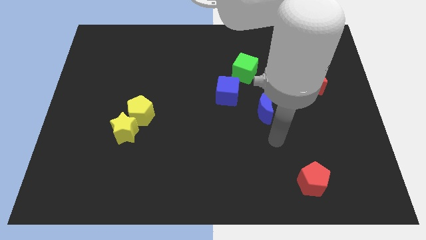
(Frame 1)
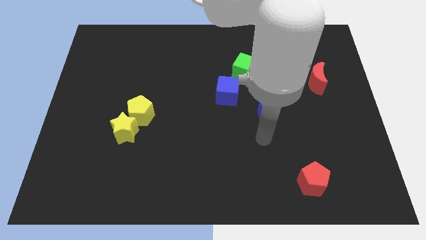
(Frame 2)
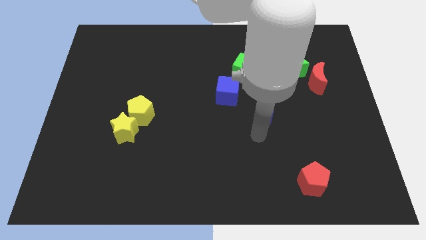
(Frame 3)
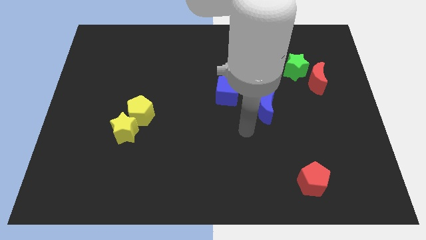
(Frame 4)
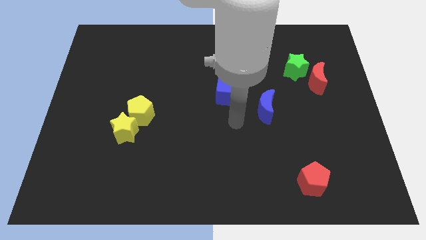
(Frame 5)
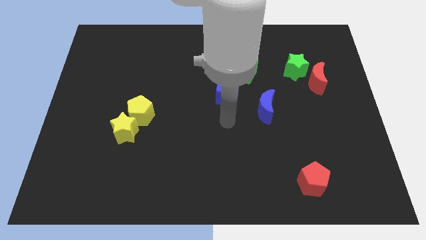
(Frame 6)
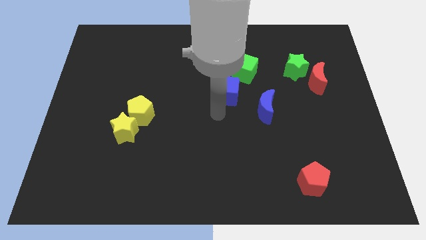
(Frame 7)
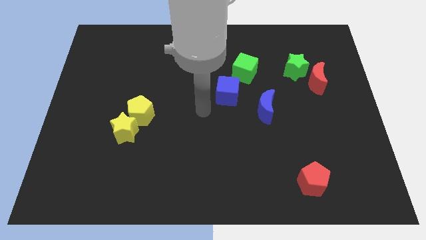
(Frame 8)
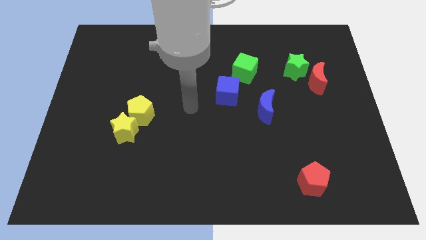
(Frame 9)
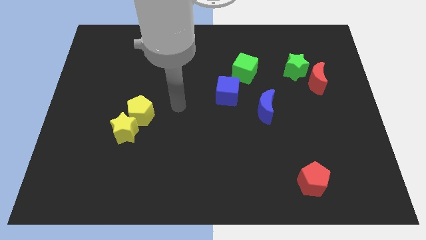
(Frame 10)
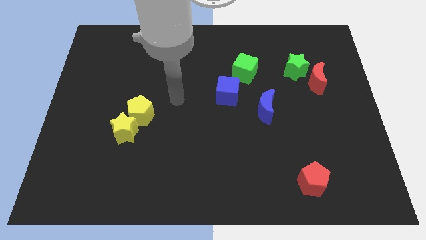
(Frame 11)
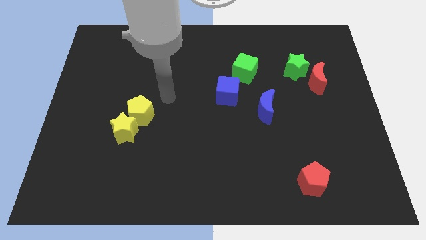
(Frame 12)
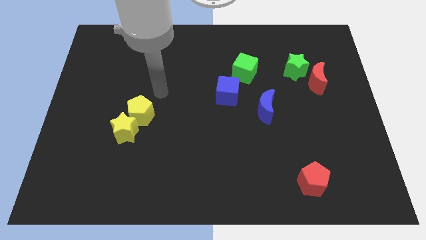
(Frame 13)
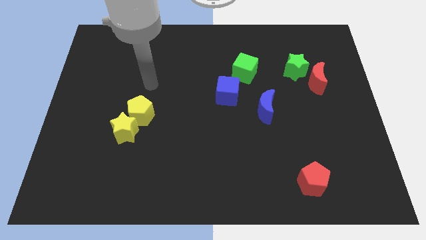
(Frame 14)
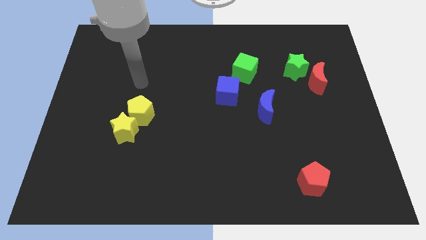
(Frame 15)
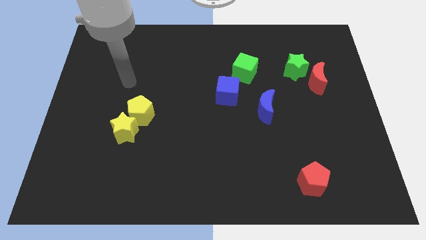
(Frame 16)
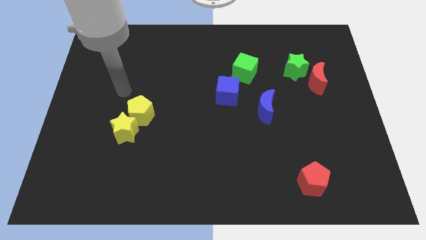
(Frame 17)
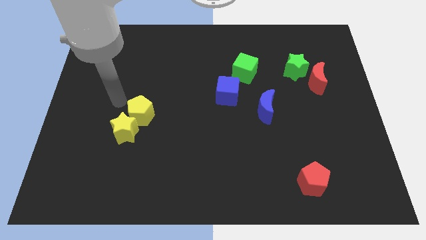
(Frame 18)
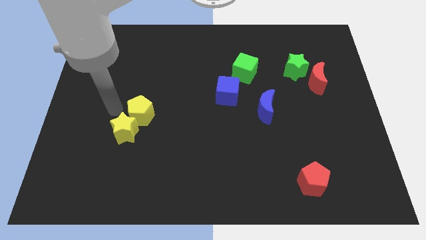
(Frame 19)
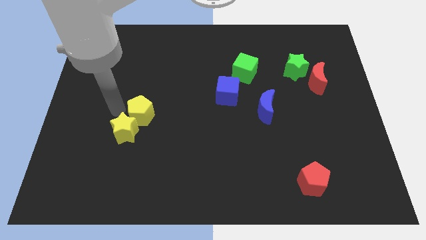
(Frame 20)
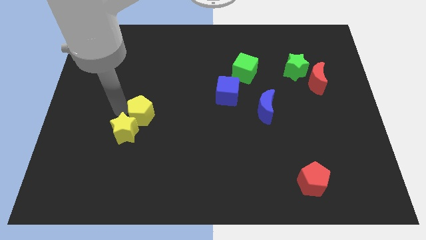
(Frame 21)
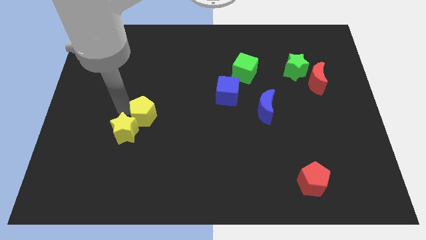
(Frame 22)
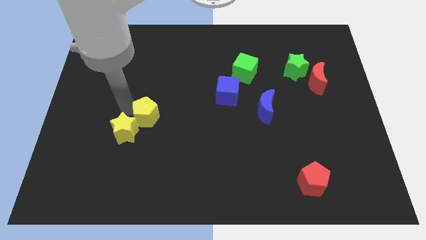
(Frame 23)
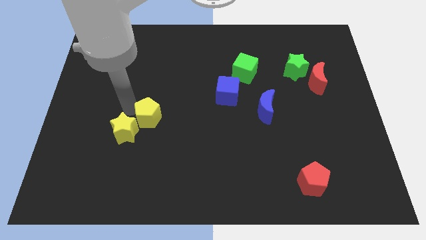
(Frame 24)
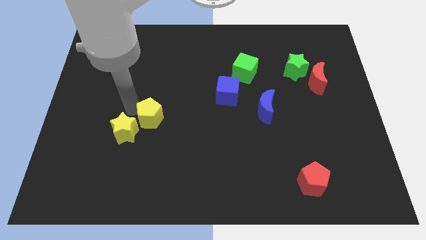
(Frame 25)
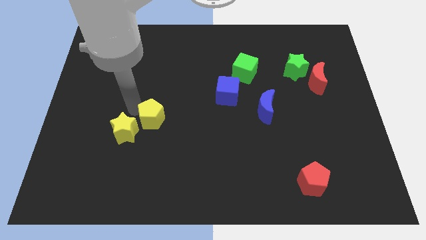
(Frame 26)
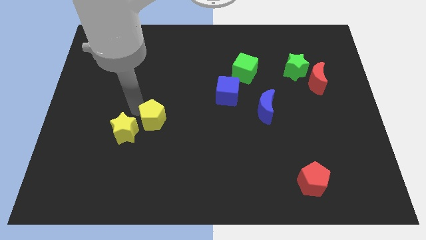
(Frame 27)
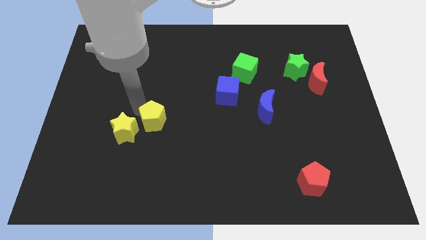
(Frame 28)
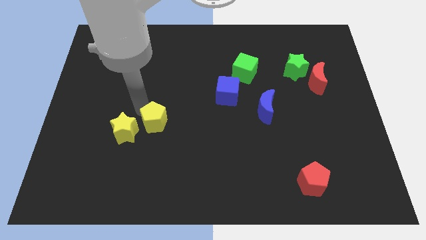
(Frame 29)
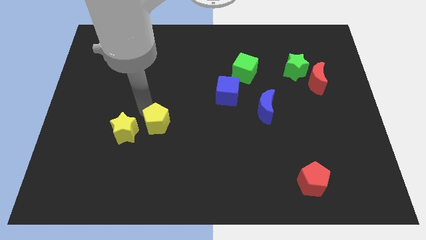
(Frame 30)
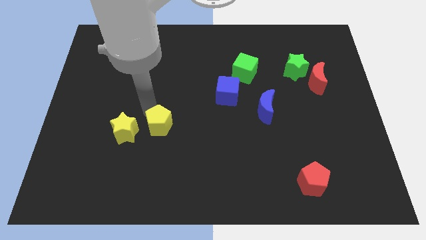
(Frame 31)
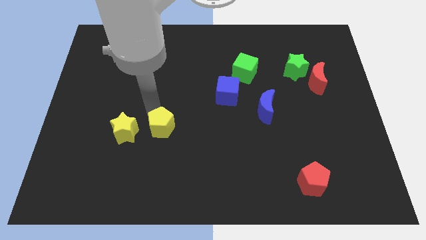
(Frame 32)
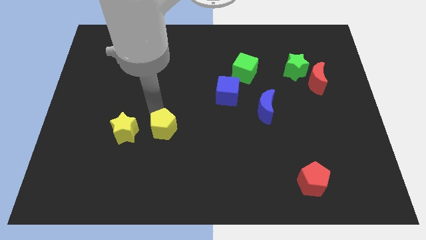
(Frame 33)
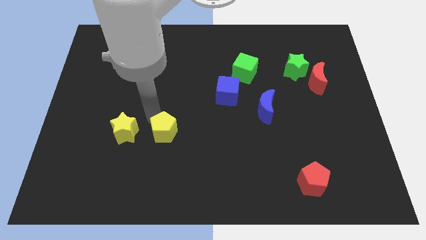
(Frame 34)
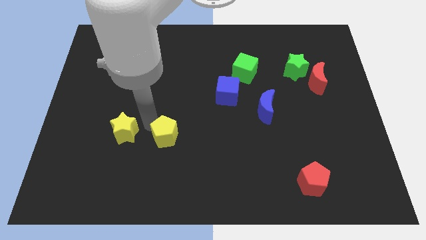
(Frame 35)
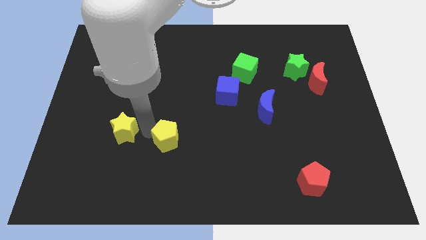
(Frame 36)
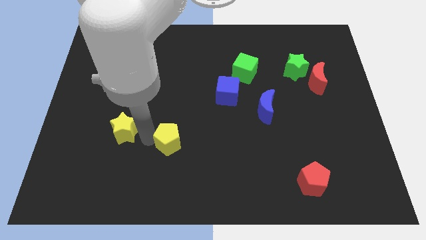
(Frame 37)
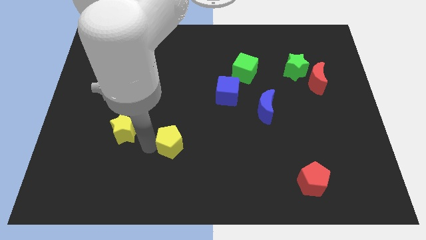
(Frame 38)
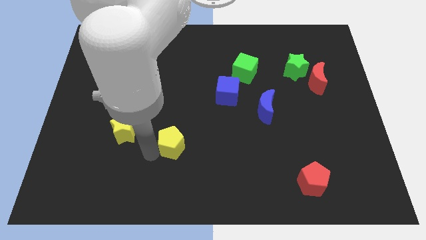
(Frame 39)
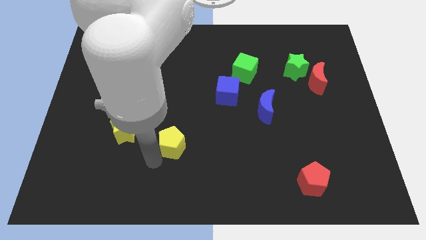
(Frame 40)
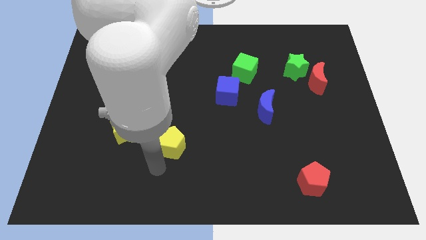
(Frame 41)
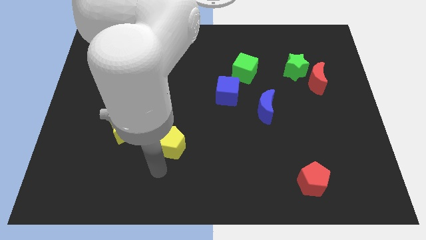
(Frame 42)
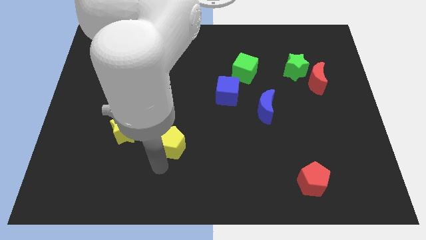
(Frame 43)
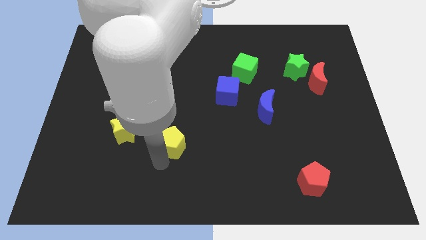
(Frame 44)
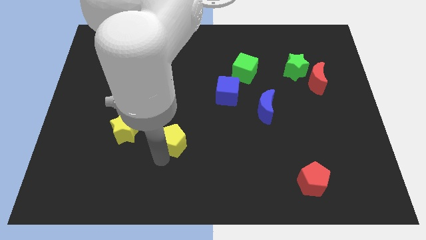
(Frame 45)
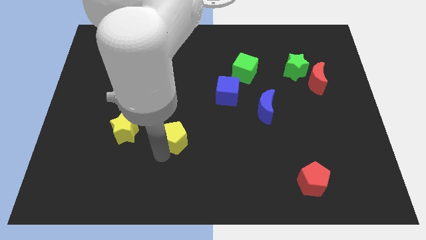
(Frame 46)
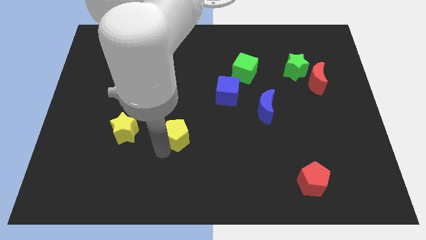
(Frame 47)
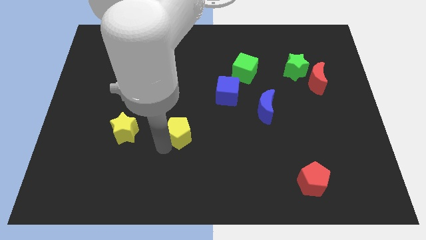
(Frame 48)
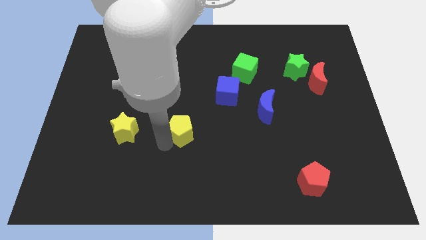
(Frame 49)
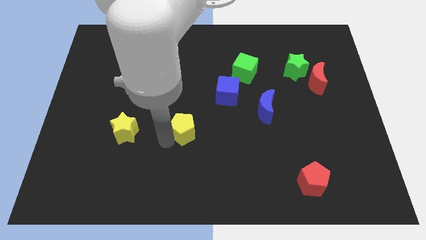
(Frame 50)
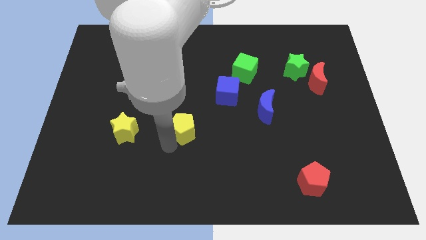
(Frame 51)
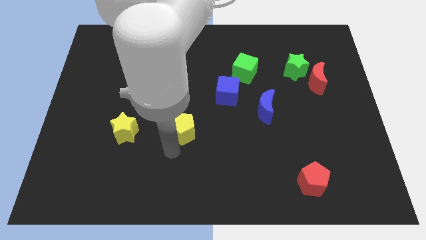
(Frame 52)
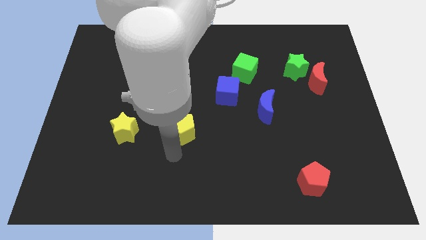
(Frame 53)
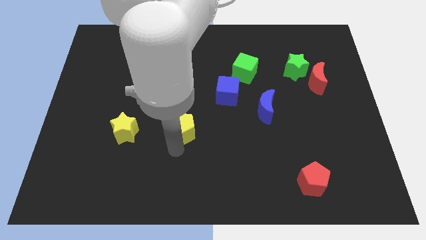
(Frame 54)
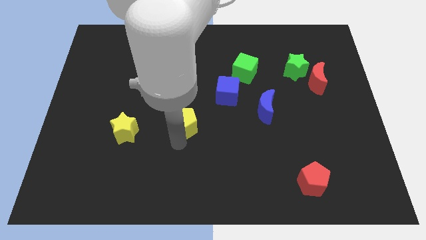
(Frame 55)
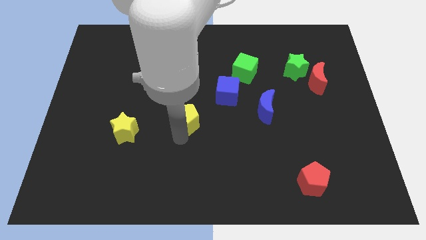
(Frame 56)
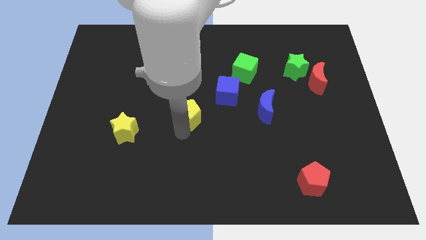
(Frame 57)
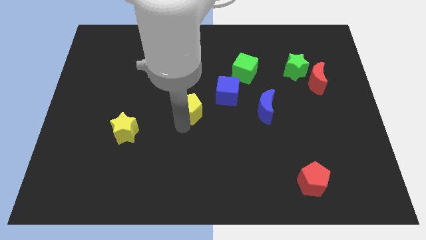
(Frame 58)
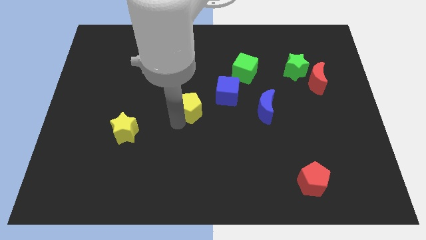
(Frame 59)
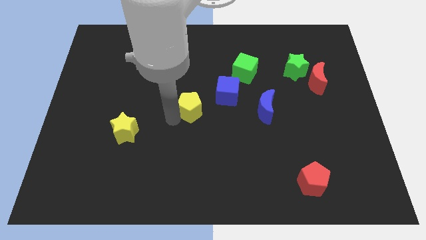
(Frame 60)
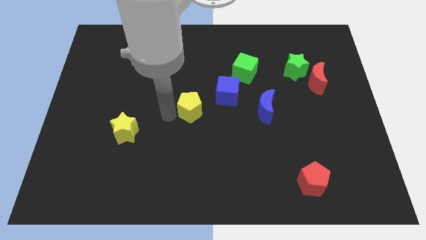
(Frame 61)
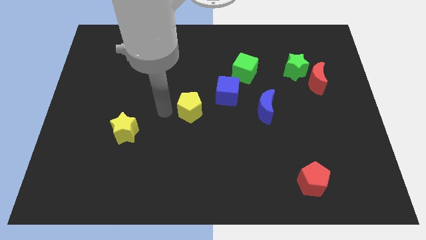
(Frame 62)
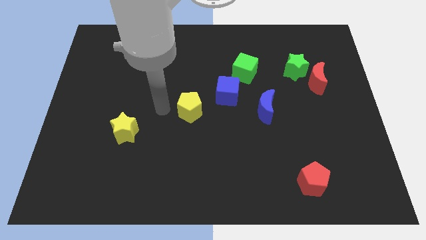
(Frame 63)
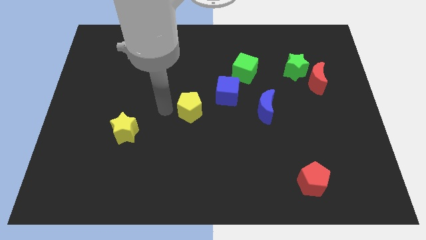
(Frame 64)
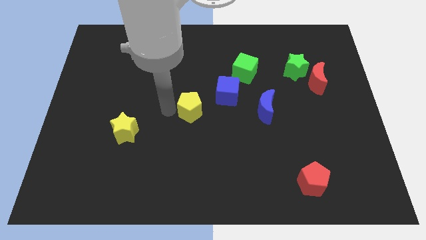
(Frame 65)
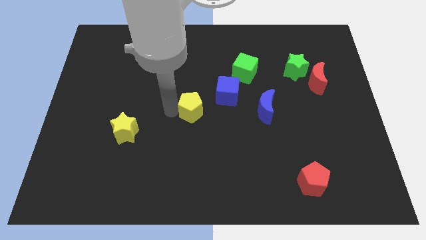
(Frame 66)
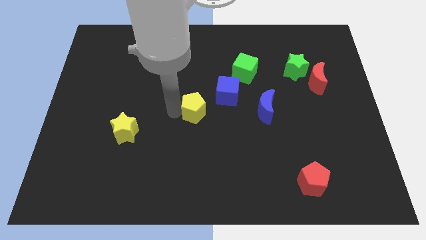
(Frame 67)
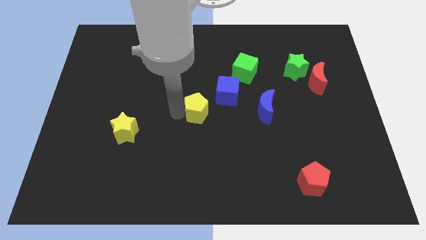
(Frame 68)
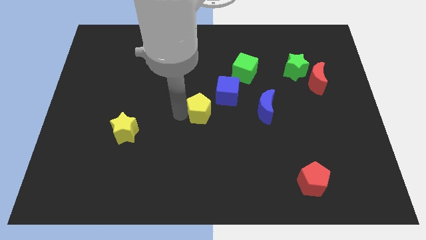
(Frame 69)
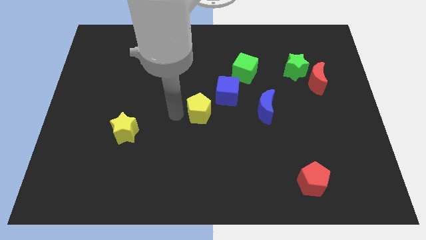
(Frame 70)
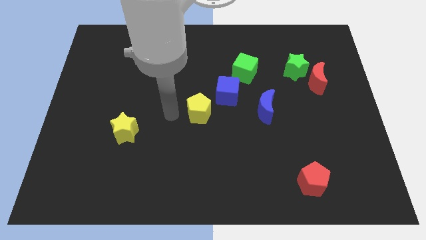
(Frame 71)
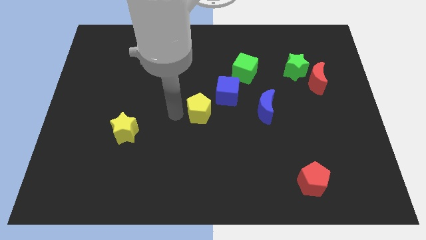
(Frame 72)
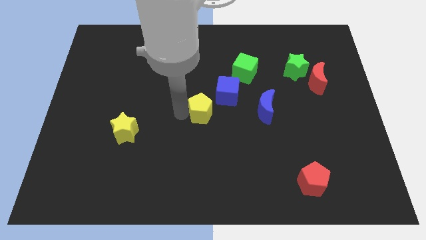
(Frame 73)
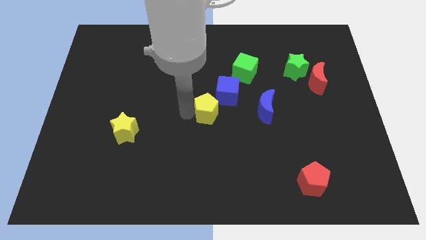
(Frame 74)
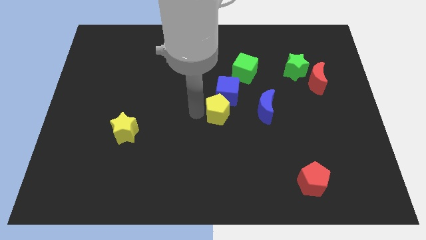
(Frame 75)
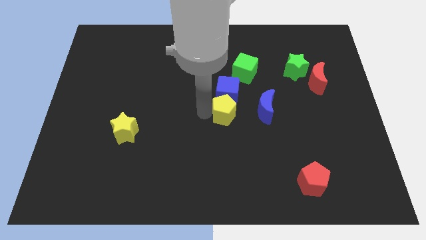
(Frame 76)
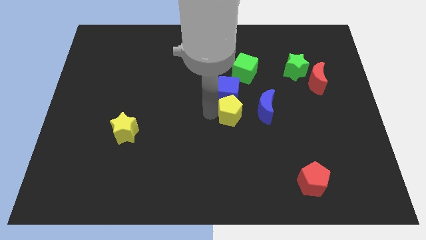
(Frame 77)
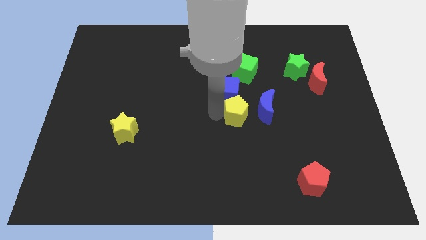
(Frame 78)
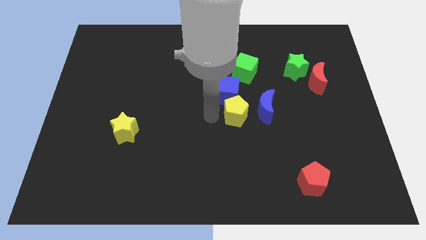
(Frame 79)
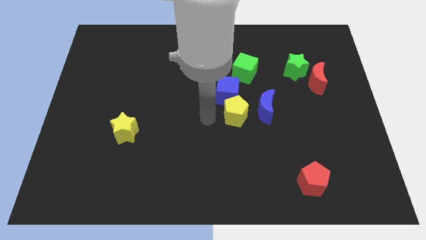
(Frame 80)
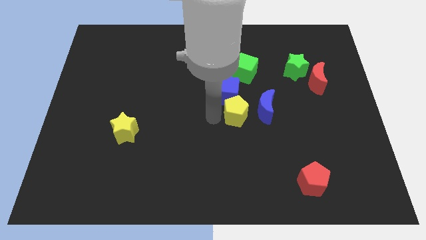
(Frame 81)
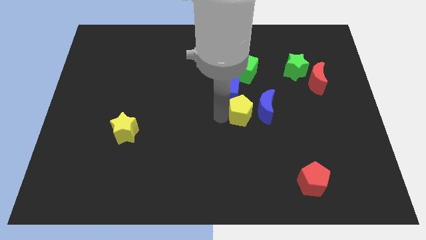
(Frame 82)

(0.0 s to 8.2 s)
push the yellow pentagon close to the blue moon
